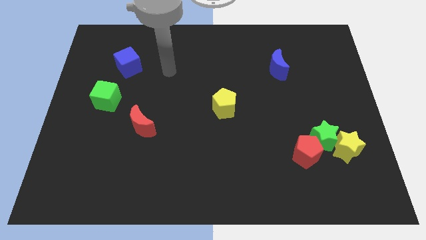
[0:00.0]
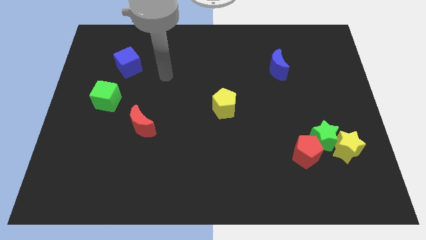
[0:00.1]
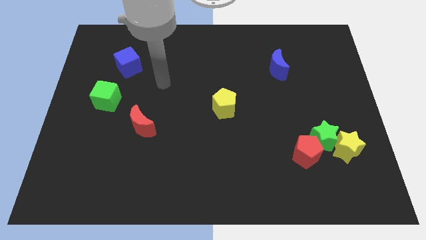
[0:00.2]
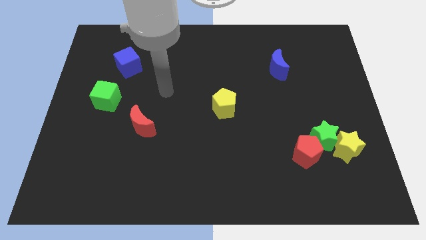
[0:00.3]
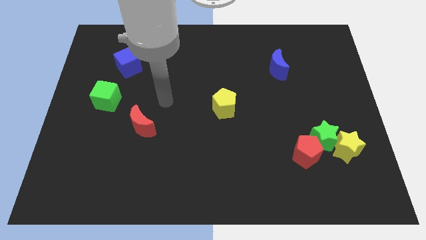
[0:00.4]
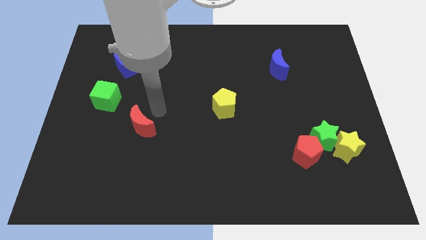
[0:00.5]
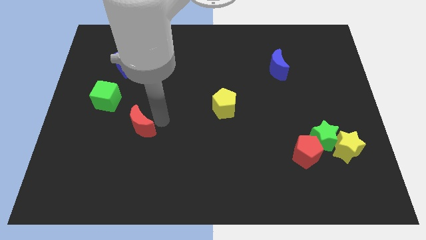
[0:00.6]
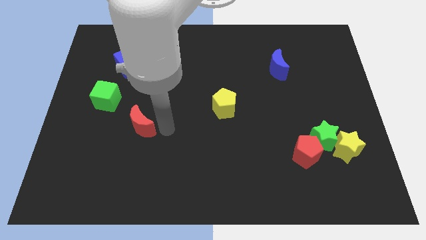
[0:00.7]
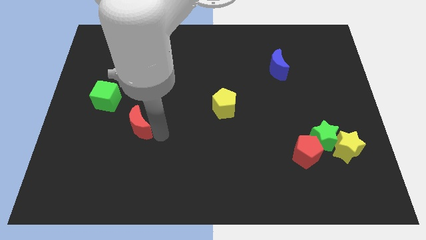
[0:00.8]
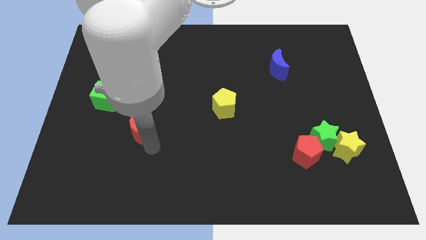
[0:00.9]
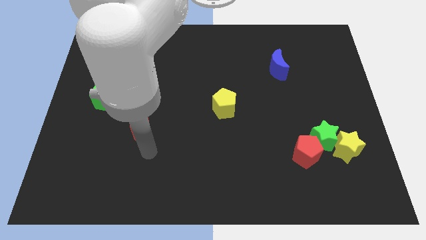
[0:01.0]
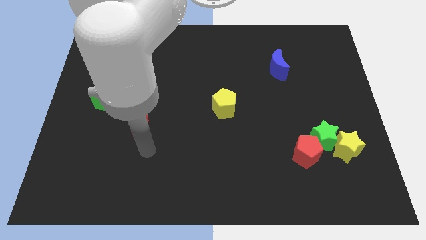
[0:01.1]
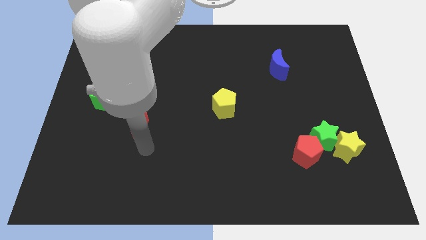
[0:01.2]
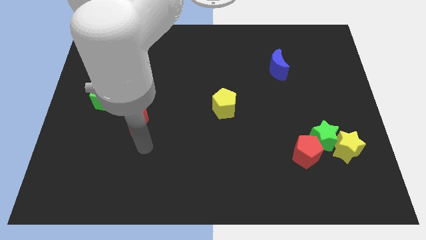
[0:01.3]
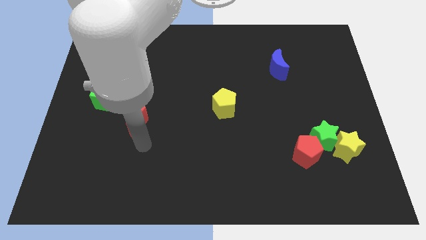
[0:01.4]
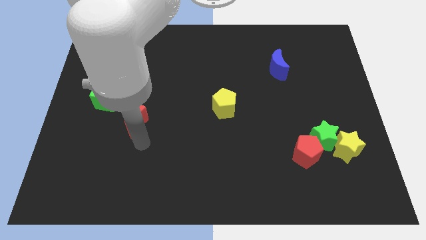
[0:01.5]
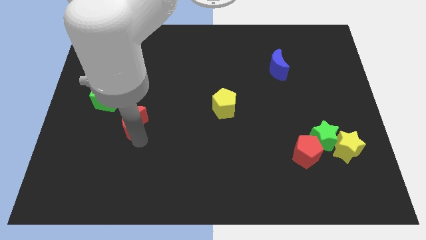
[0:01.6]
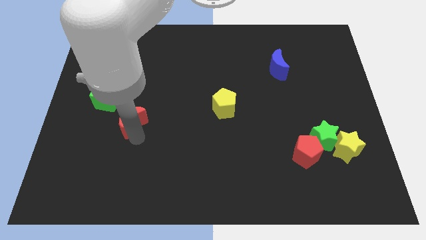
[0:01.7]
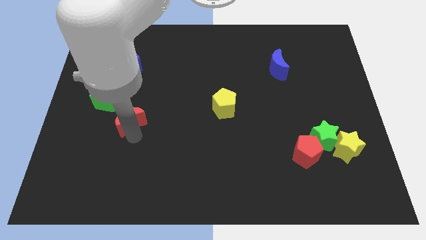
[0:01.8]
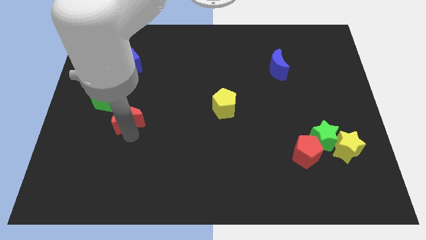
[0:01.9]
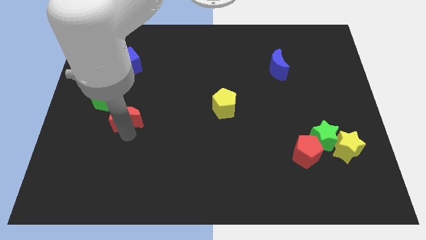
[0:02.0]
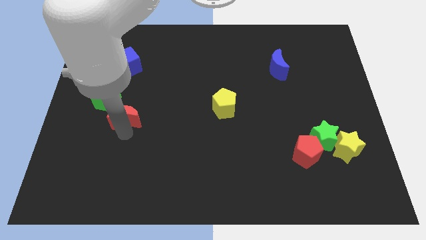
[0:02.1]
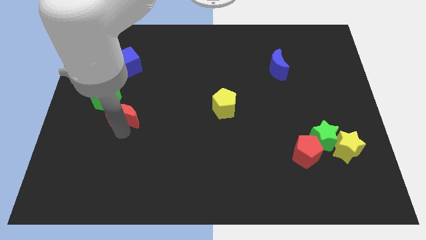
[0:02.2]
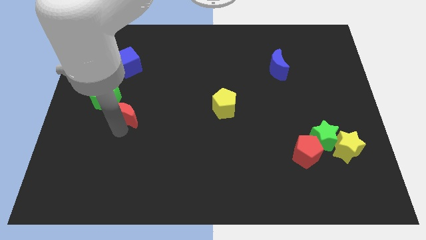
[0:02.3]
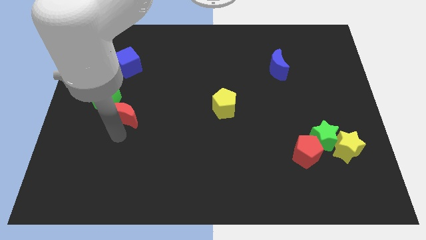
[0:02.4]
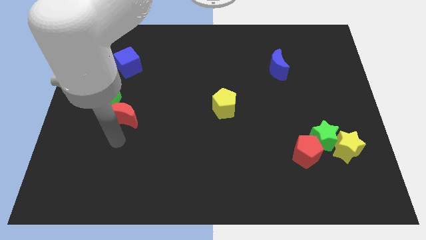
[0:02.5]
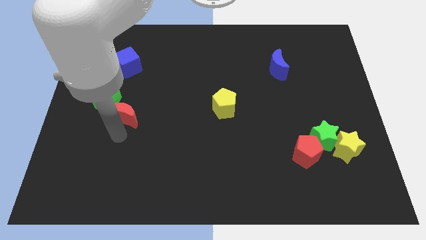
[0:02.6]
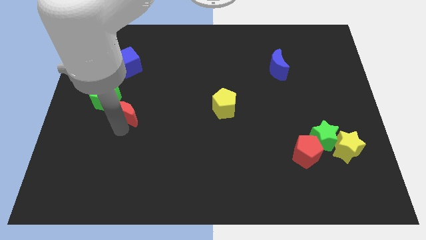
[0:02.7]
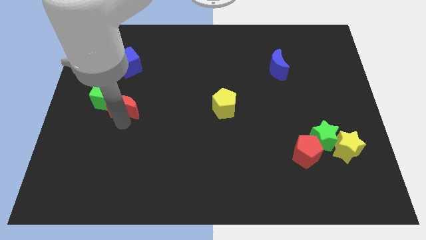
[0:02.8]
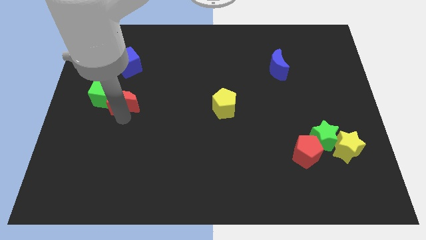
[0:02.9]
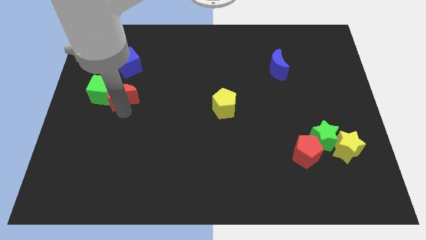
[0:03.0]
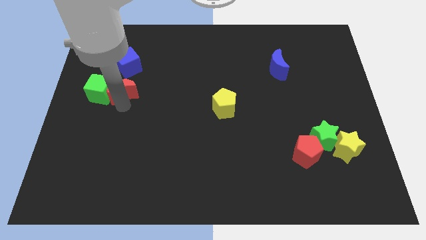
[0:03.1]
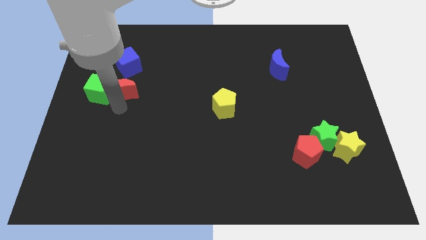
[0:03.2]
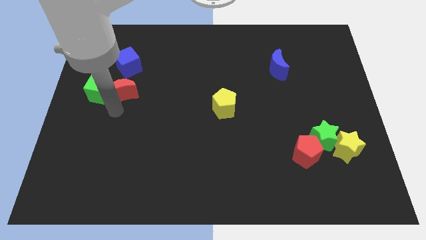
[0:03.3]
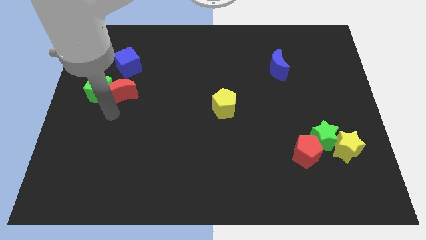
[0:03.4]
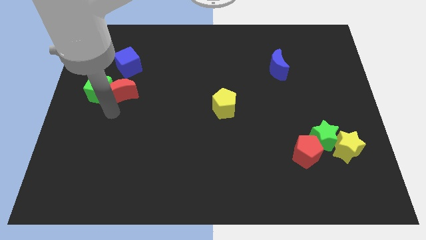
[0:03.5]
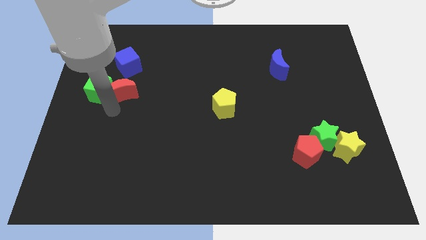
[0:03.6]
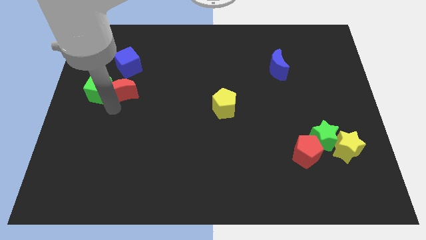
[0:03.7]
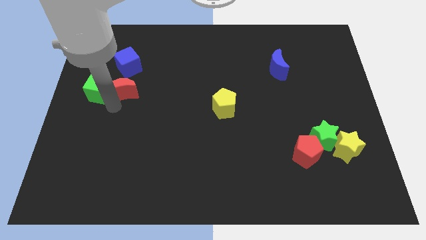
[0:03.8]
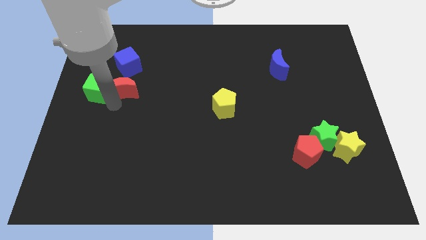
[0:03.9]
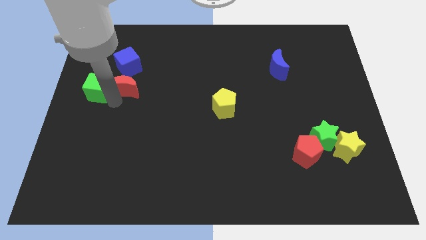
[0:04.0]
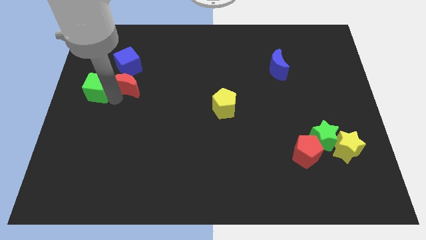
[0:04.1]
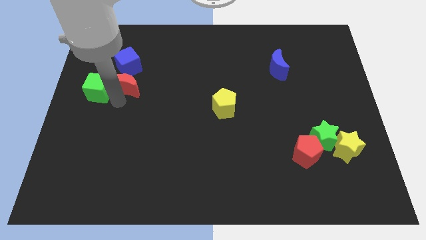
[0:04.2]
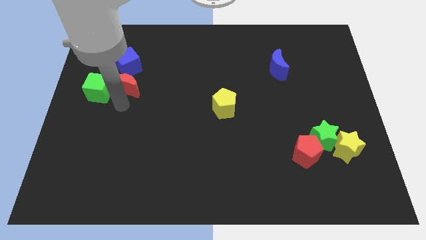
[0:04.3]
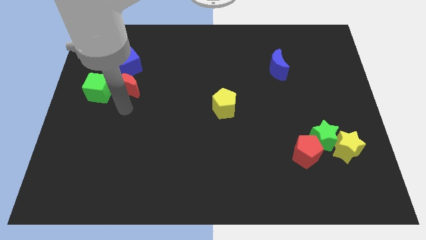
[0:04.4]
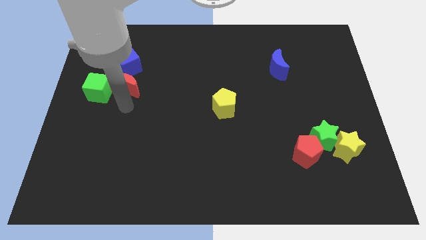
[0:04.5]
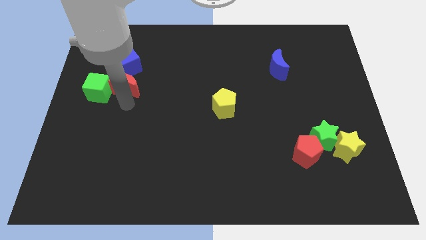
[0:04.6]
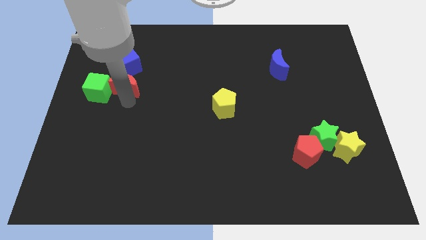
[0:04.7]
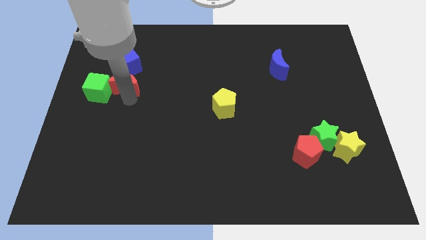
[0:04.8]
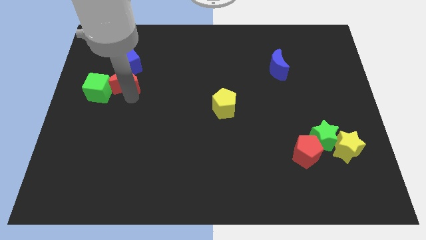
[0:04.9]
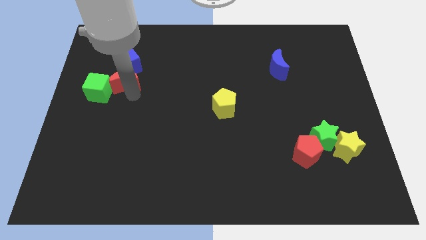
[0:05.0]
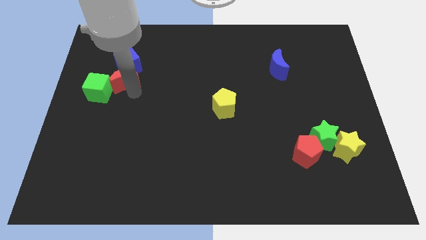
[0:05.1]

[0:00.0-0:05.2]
slide the red moon towards the blue cube

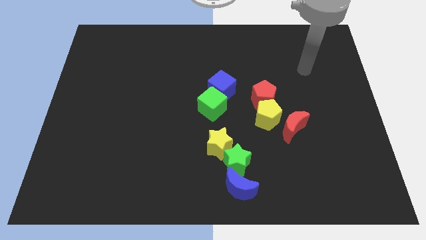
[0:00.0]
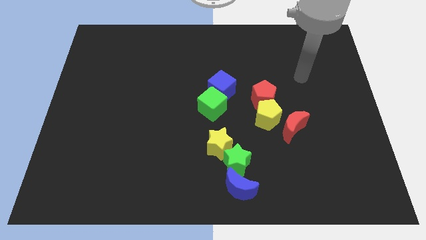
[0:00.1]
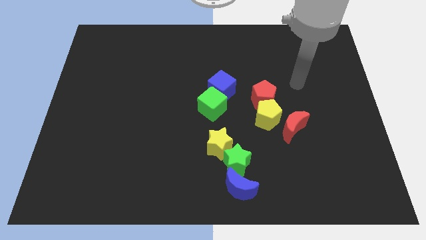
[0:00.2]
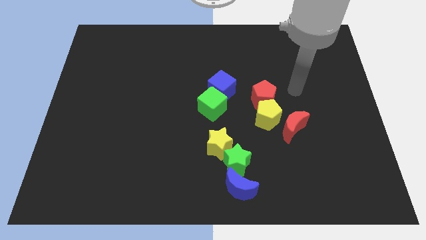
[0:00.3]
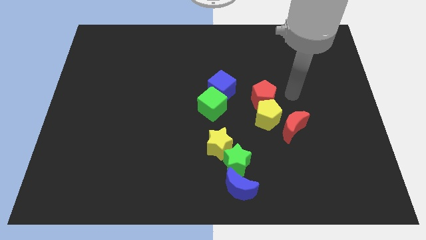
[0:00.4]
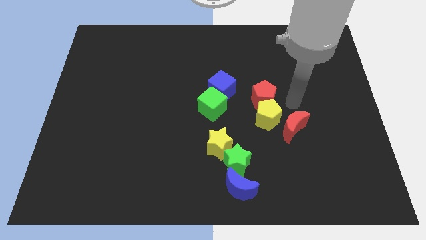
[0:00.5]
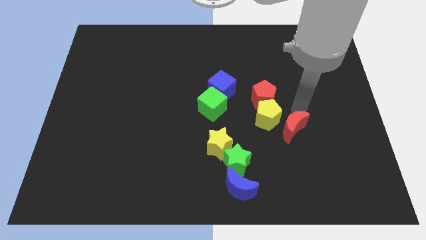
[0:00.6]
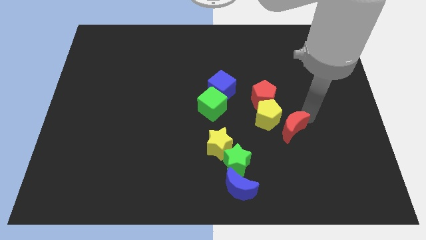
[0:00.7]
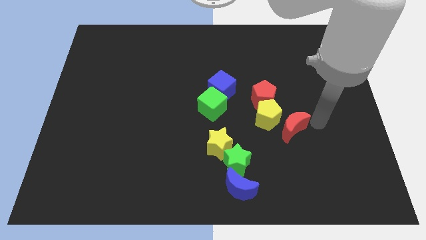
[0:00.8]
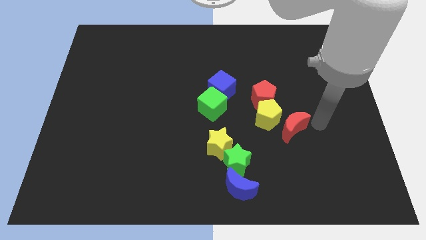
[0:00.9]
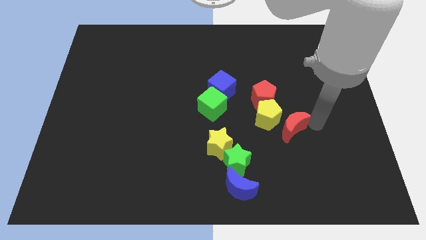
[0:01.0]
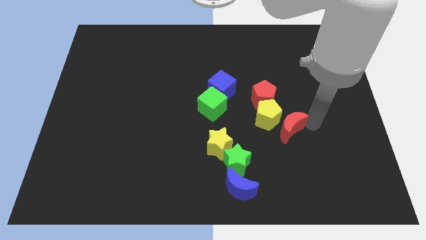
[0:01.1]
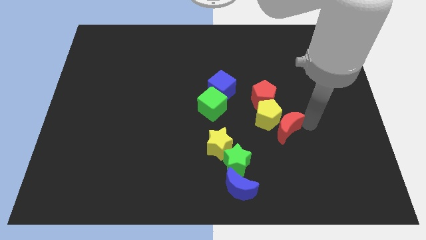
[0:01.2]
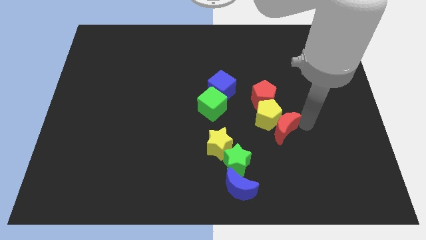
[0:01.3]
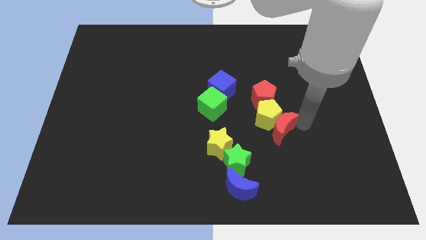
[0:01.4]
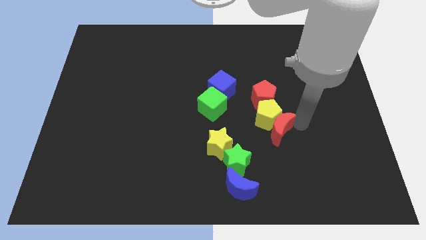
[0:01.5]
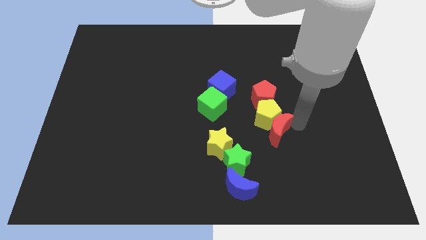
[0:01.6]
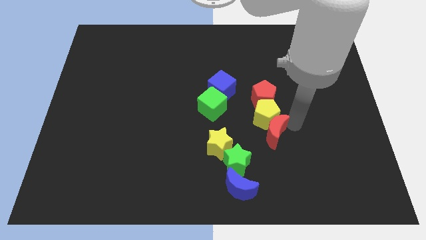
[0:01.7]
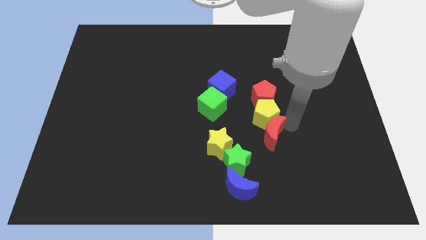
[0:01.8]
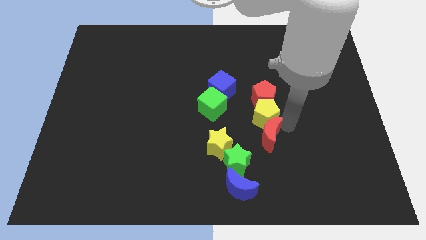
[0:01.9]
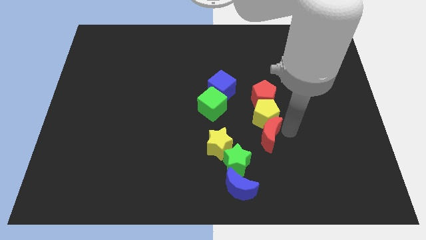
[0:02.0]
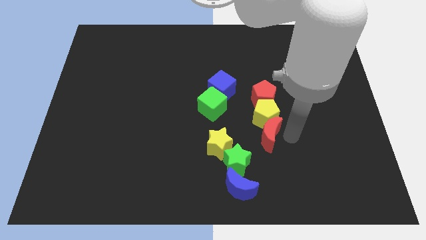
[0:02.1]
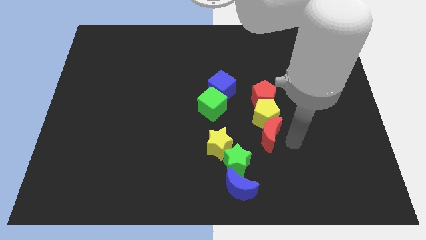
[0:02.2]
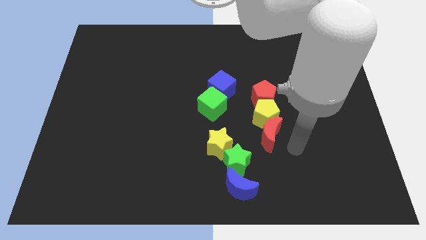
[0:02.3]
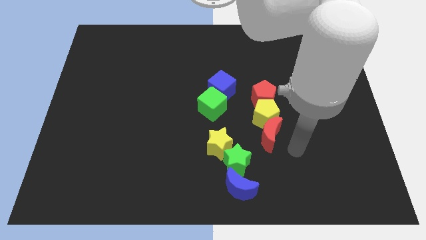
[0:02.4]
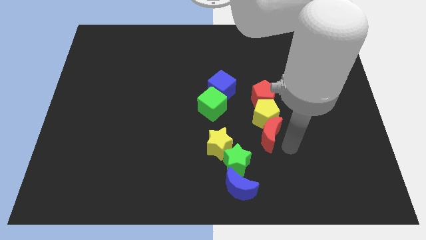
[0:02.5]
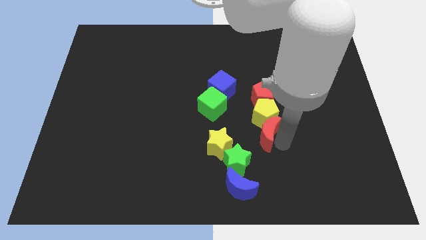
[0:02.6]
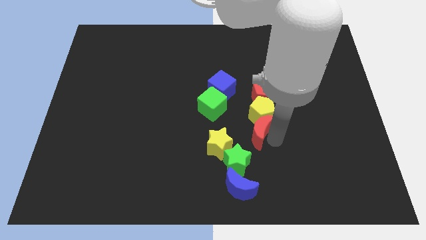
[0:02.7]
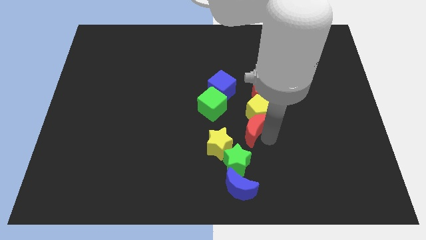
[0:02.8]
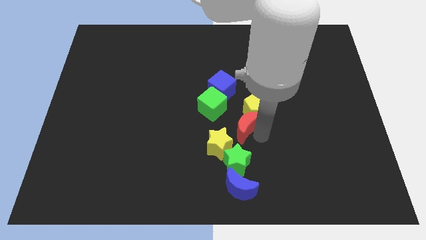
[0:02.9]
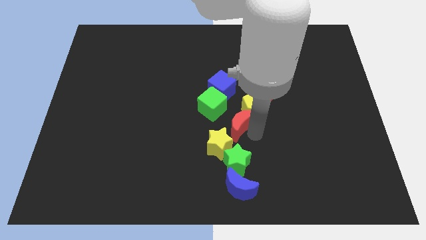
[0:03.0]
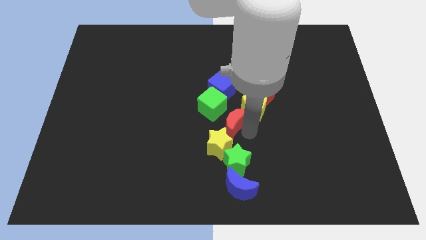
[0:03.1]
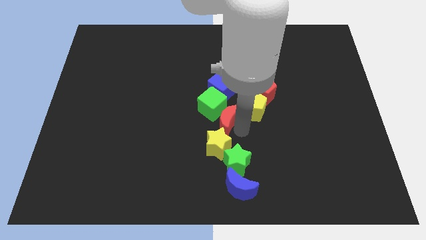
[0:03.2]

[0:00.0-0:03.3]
push the red moon towards the green cube
